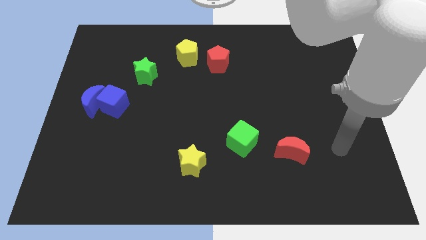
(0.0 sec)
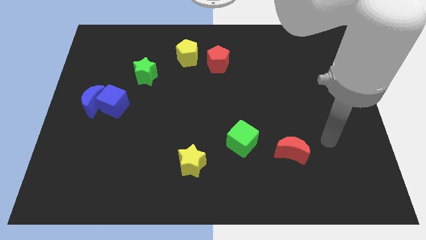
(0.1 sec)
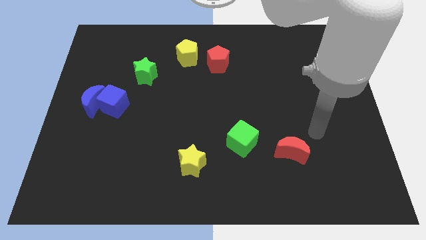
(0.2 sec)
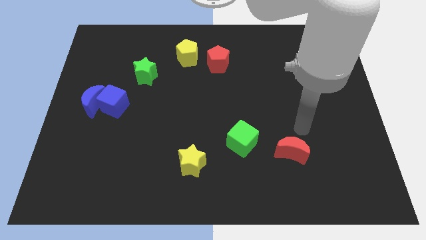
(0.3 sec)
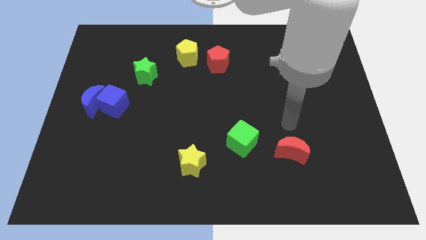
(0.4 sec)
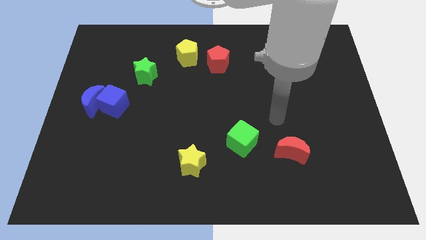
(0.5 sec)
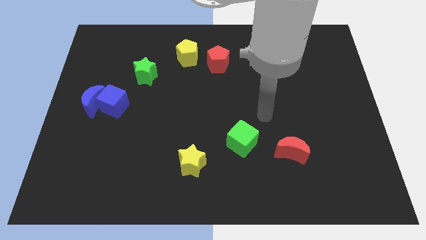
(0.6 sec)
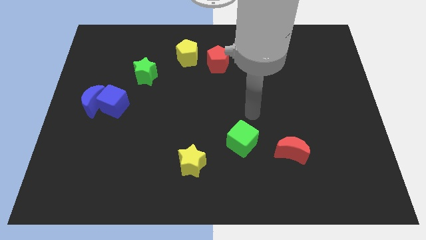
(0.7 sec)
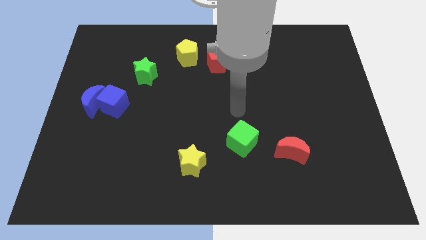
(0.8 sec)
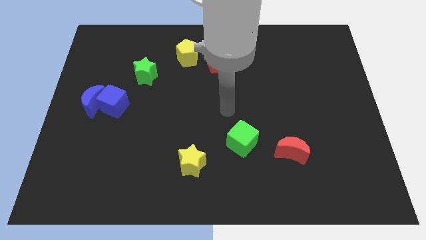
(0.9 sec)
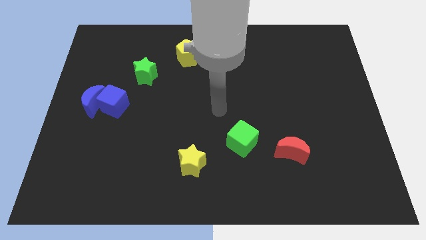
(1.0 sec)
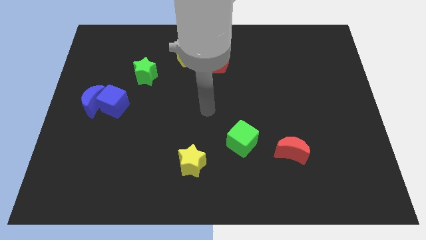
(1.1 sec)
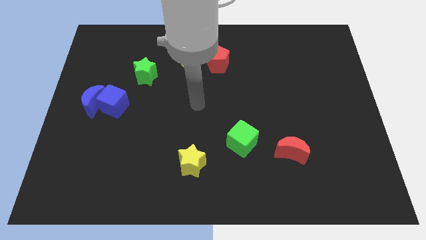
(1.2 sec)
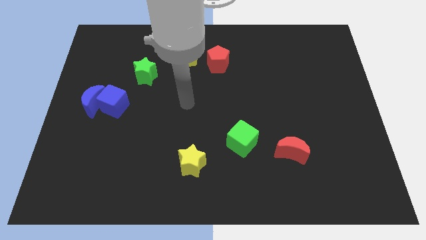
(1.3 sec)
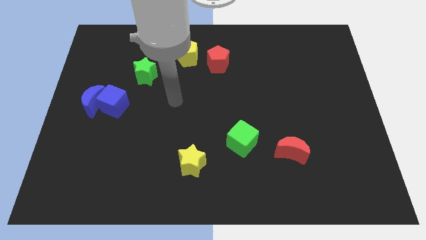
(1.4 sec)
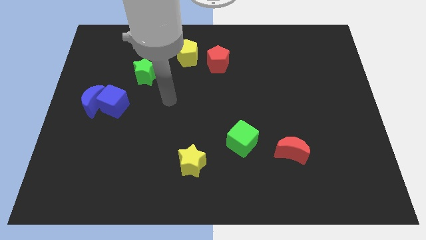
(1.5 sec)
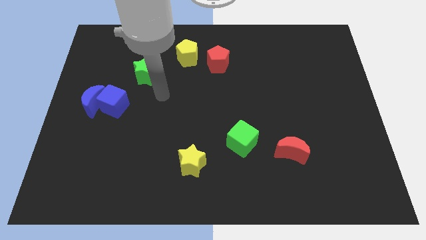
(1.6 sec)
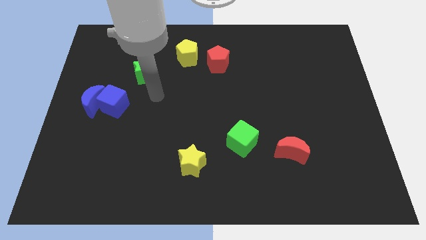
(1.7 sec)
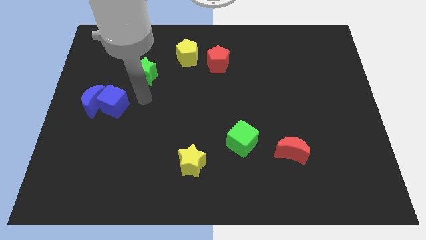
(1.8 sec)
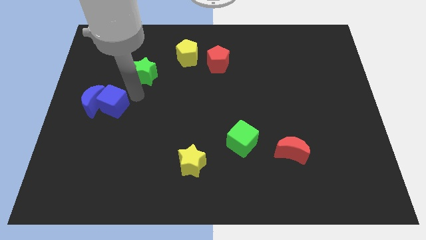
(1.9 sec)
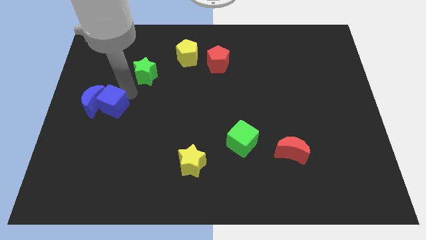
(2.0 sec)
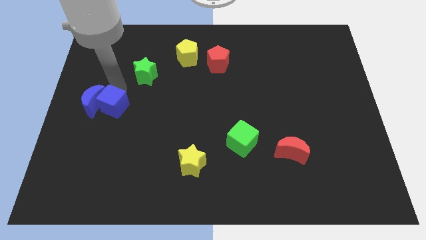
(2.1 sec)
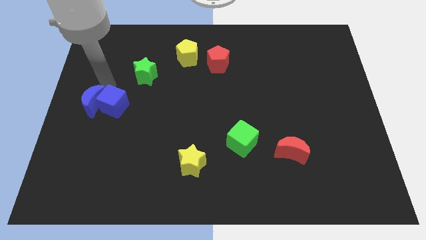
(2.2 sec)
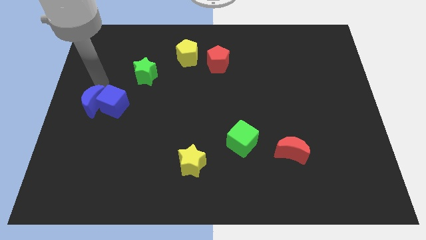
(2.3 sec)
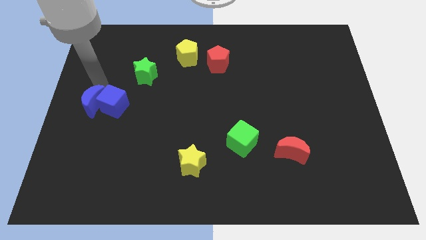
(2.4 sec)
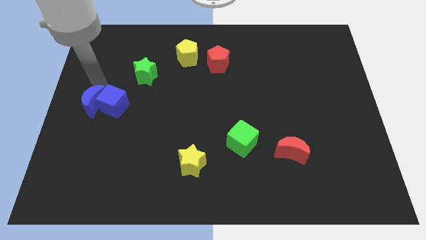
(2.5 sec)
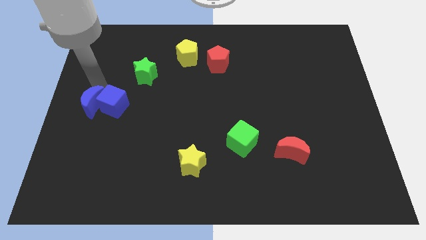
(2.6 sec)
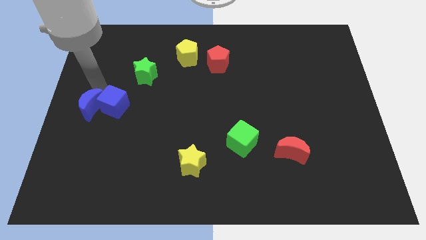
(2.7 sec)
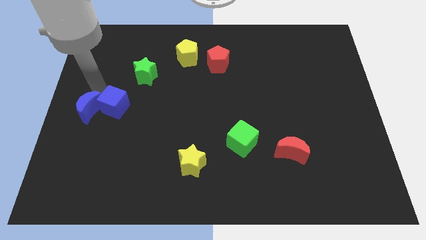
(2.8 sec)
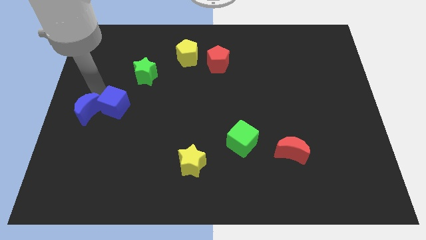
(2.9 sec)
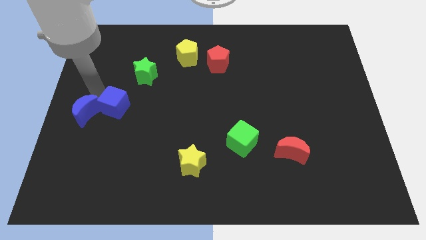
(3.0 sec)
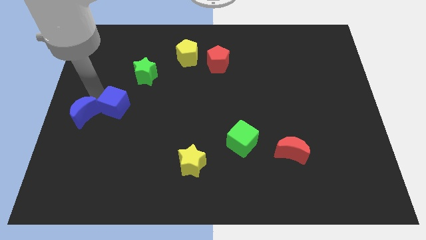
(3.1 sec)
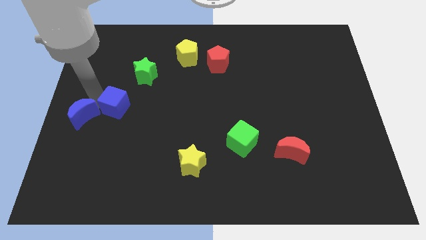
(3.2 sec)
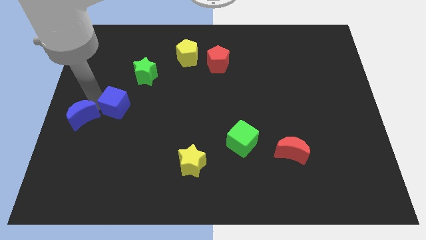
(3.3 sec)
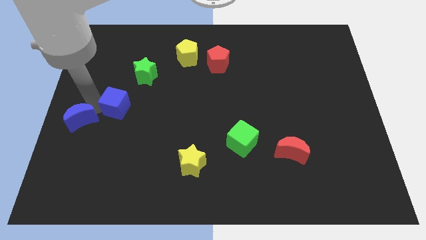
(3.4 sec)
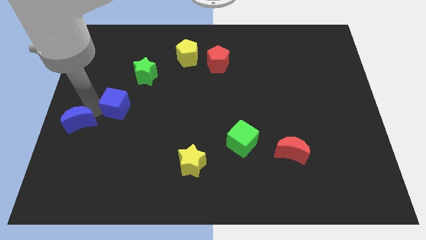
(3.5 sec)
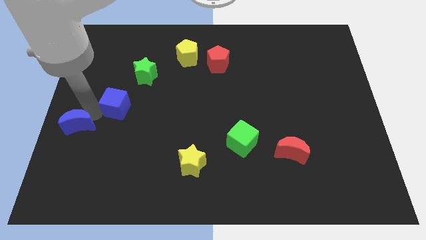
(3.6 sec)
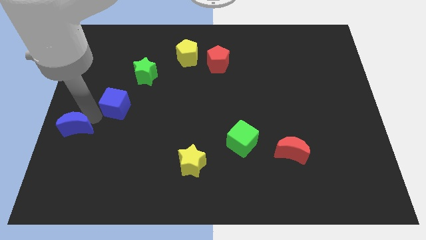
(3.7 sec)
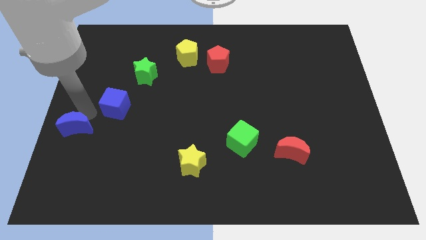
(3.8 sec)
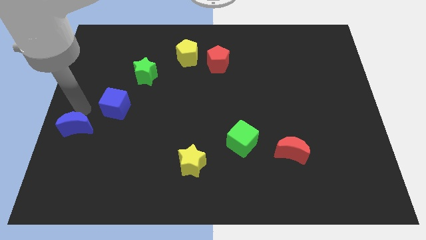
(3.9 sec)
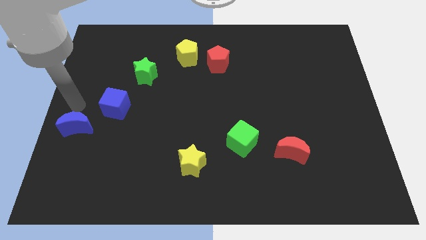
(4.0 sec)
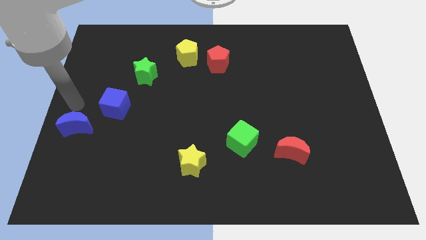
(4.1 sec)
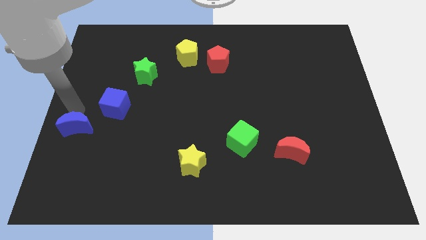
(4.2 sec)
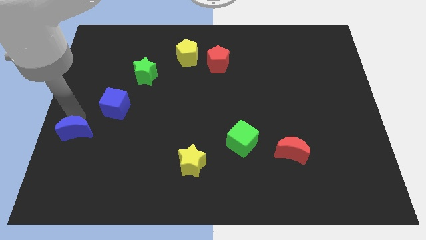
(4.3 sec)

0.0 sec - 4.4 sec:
push the blue moon down somewhat

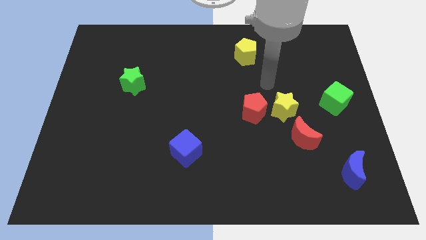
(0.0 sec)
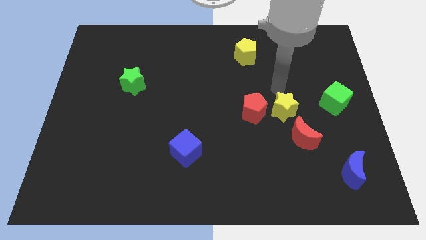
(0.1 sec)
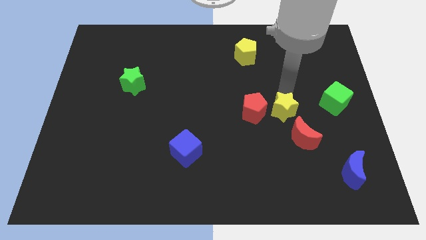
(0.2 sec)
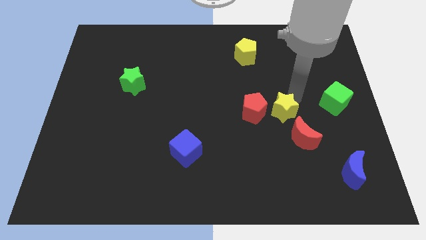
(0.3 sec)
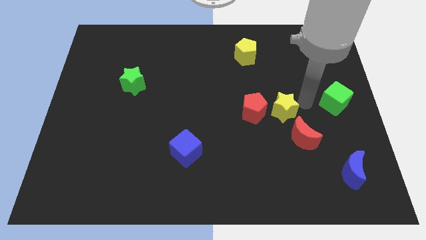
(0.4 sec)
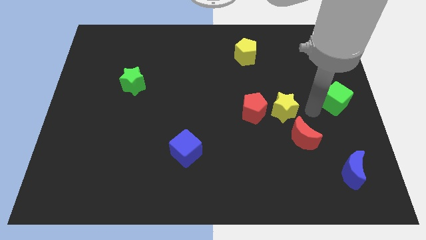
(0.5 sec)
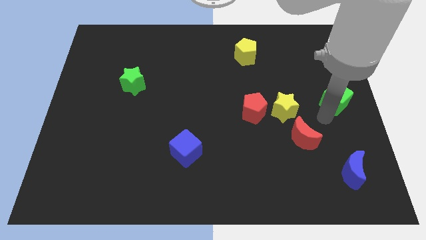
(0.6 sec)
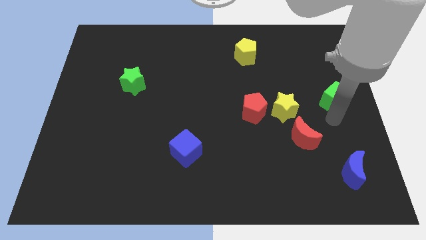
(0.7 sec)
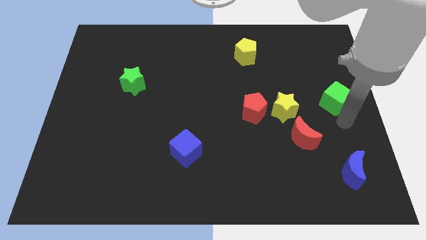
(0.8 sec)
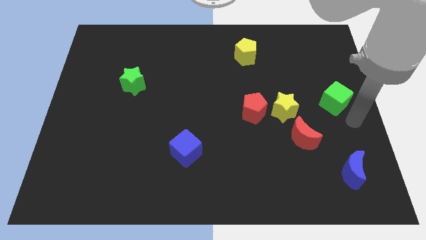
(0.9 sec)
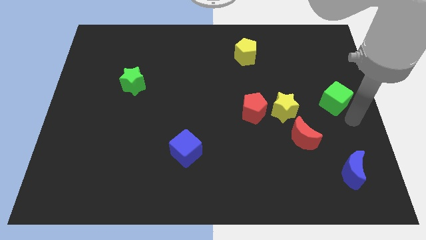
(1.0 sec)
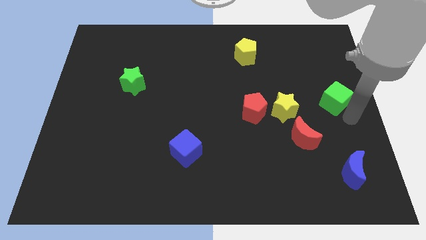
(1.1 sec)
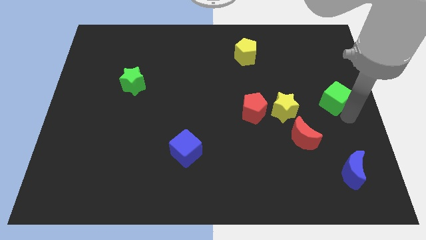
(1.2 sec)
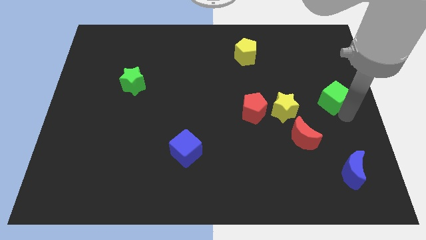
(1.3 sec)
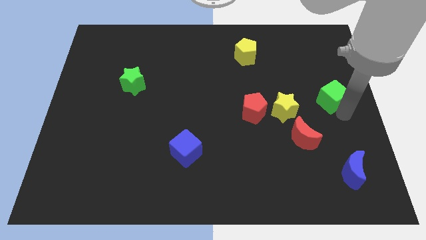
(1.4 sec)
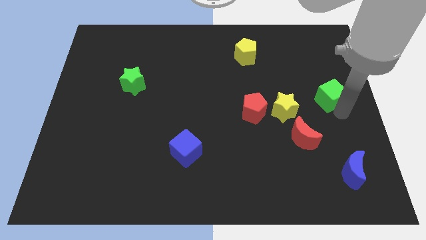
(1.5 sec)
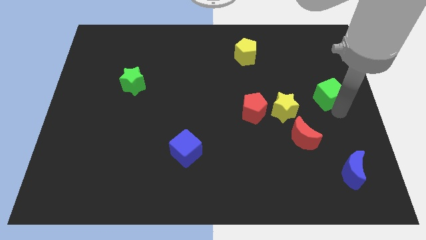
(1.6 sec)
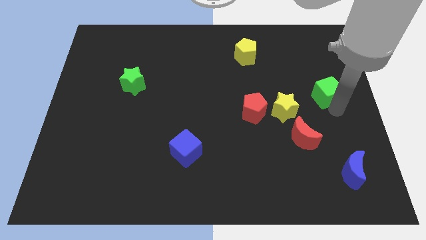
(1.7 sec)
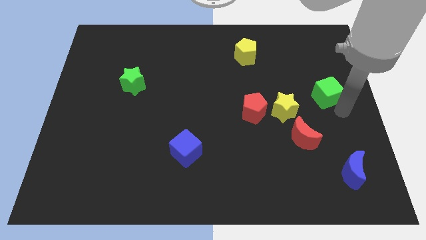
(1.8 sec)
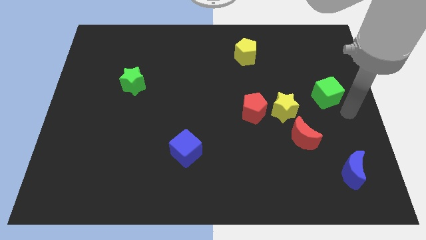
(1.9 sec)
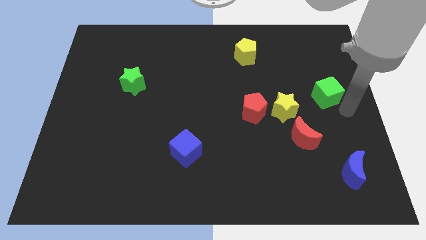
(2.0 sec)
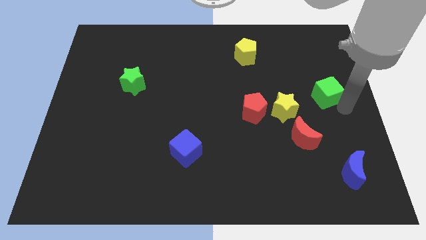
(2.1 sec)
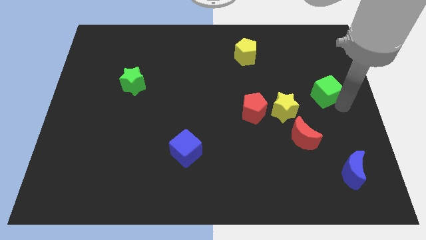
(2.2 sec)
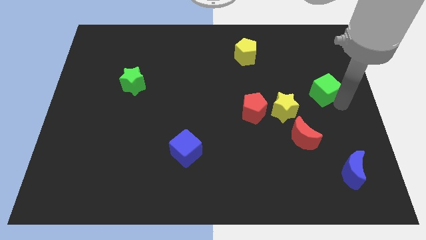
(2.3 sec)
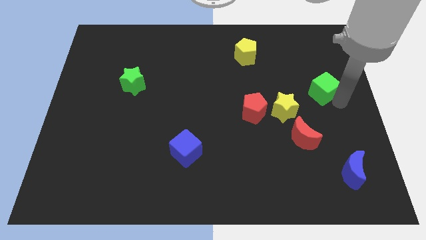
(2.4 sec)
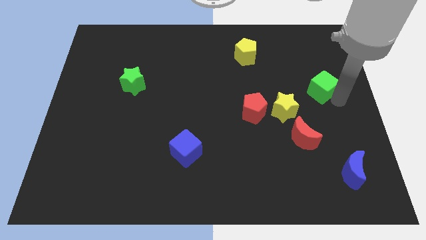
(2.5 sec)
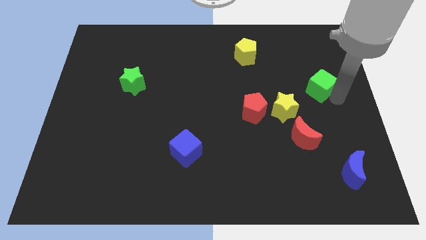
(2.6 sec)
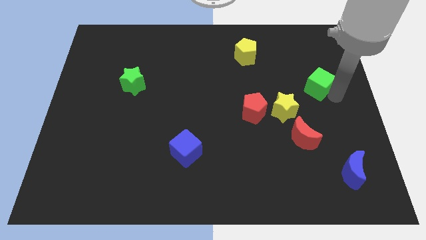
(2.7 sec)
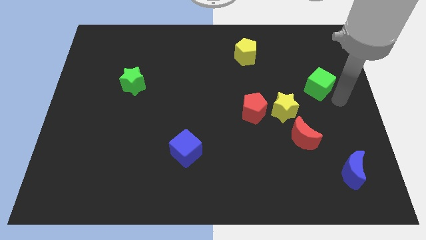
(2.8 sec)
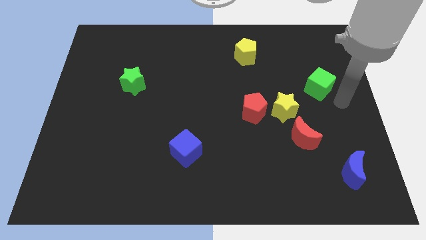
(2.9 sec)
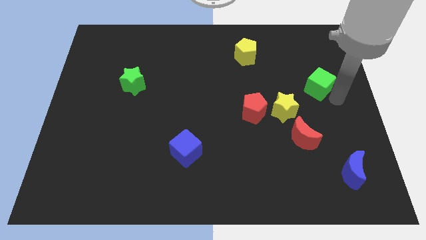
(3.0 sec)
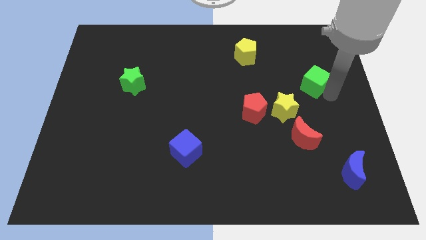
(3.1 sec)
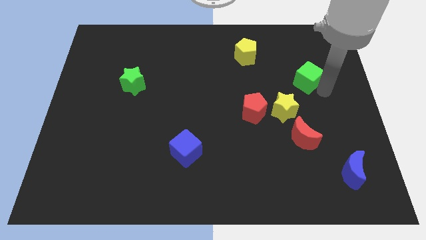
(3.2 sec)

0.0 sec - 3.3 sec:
slightly move the green cube up and to the left diagonally

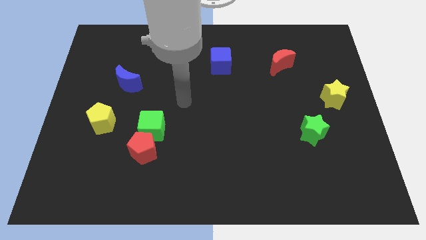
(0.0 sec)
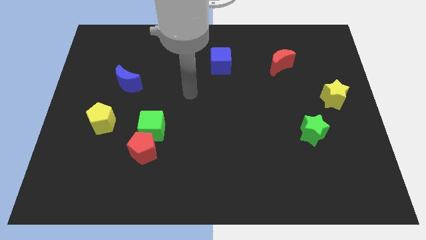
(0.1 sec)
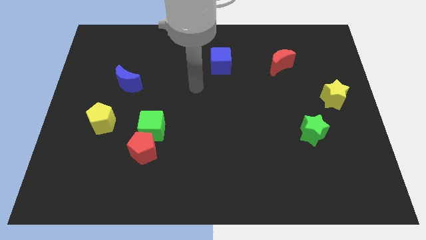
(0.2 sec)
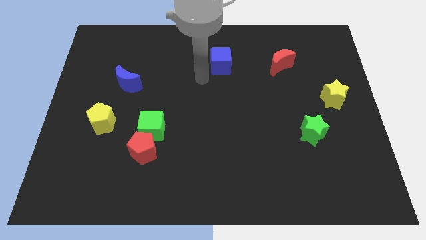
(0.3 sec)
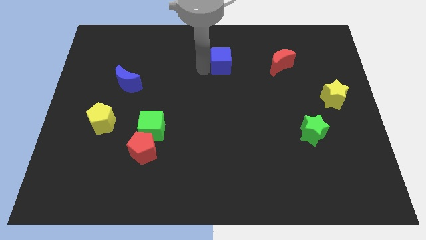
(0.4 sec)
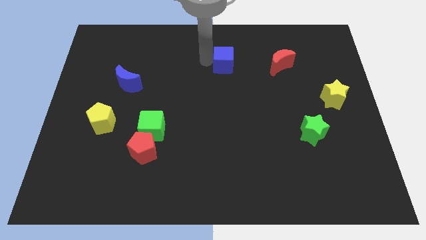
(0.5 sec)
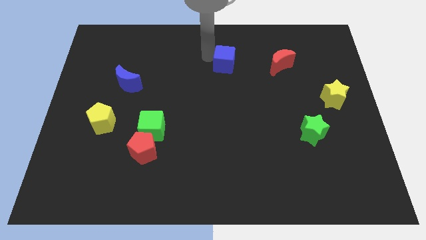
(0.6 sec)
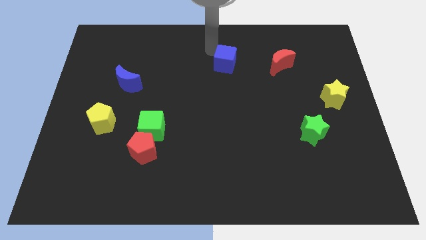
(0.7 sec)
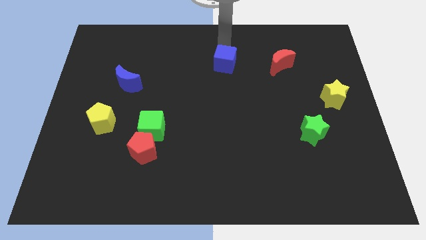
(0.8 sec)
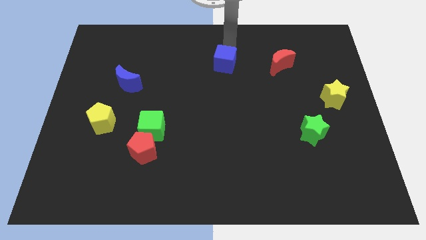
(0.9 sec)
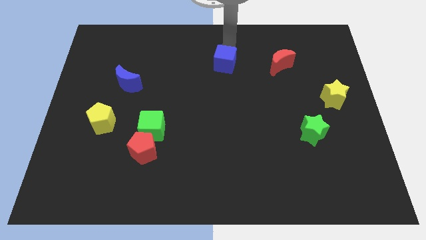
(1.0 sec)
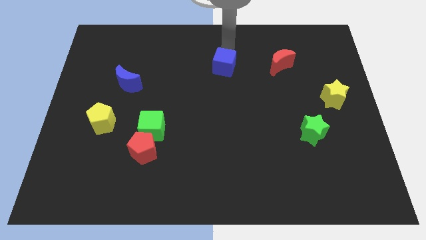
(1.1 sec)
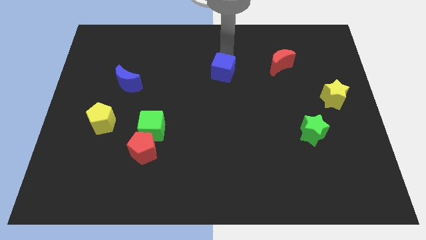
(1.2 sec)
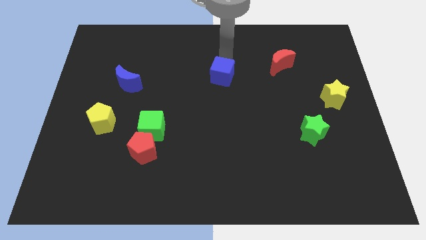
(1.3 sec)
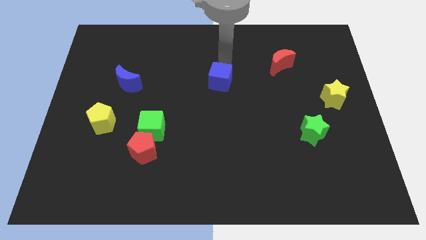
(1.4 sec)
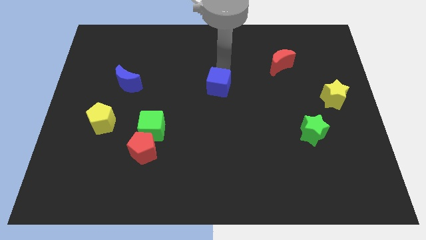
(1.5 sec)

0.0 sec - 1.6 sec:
push the blue cube a little down
